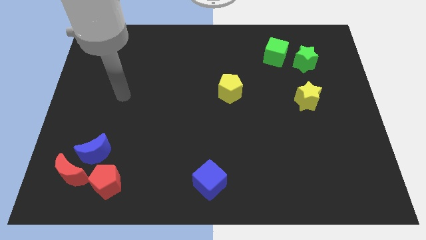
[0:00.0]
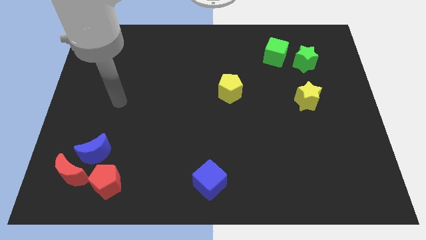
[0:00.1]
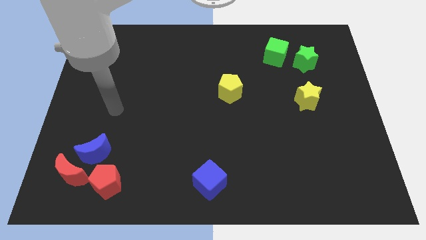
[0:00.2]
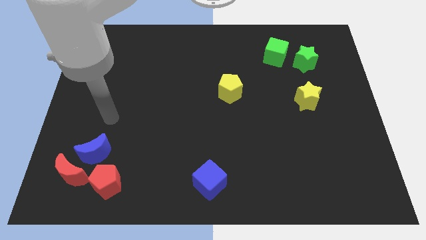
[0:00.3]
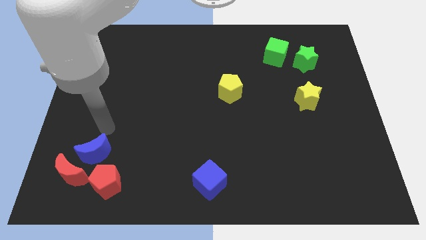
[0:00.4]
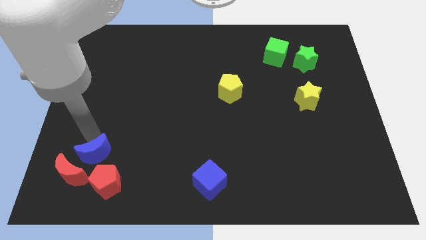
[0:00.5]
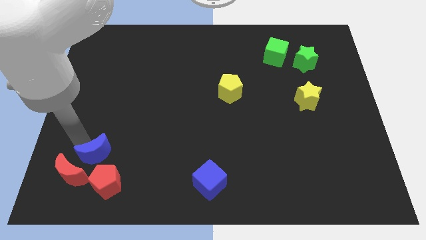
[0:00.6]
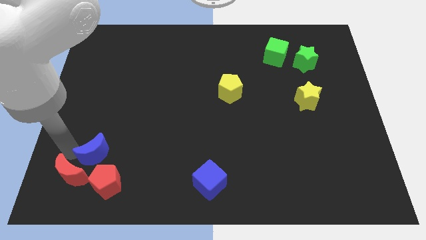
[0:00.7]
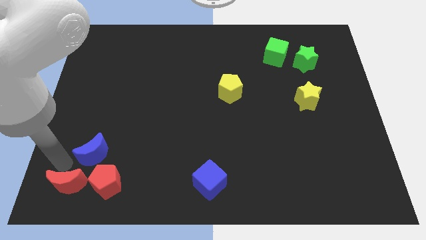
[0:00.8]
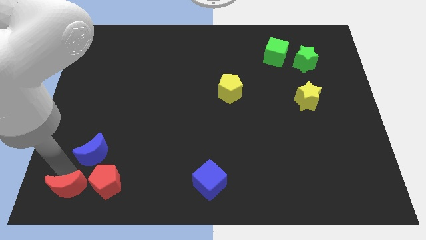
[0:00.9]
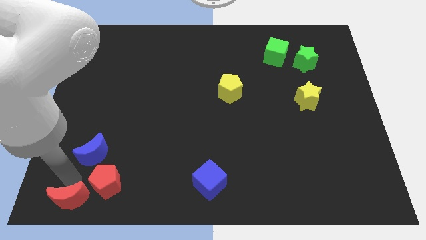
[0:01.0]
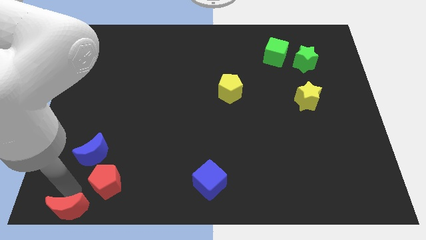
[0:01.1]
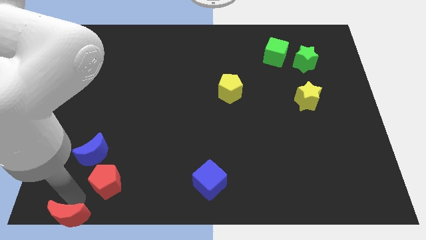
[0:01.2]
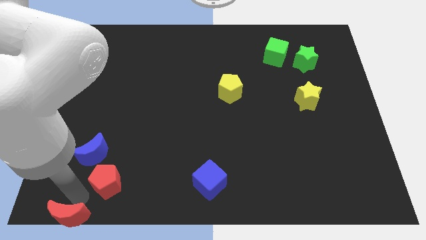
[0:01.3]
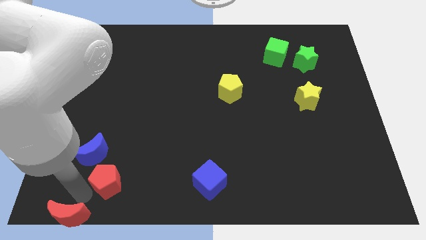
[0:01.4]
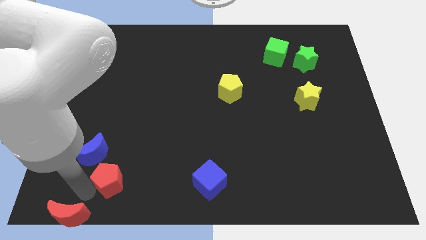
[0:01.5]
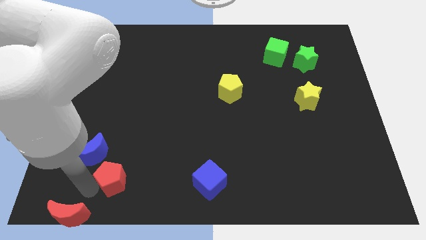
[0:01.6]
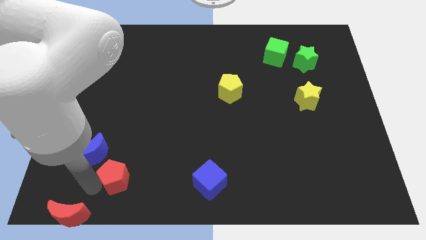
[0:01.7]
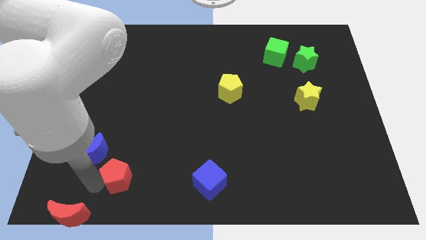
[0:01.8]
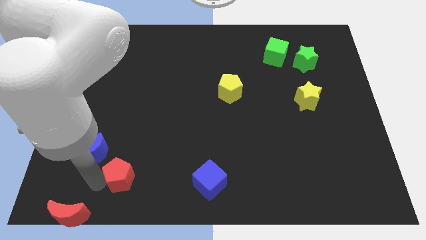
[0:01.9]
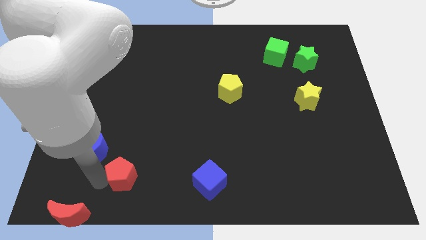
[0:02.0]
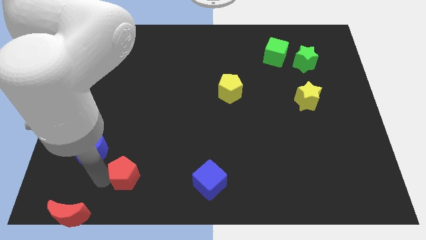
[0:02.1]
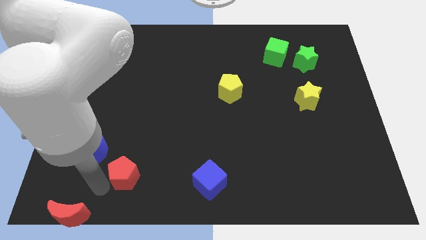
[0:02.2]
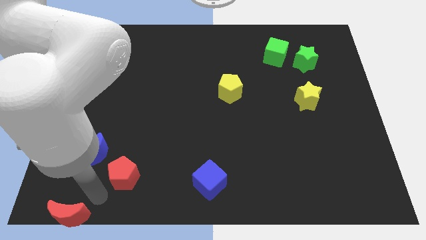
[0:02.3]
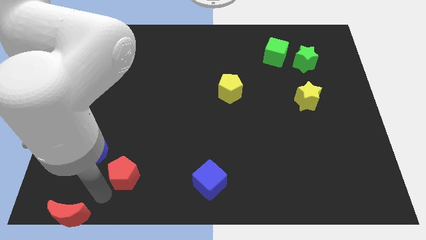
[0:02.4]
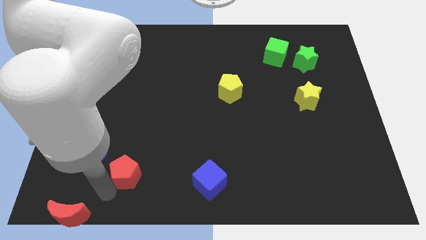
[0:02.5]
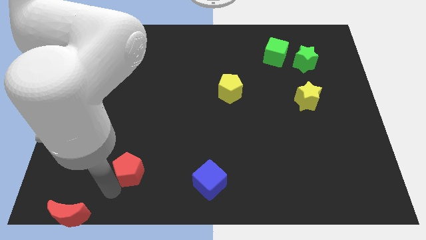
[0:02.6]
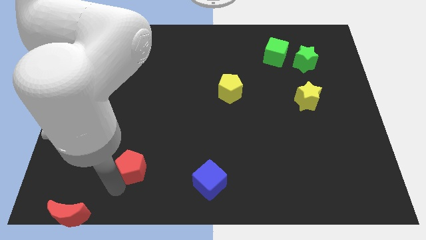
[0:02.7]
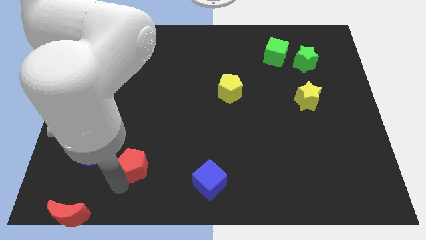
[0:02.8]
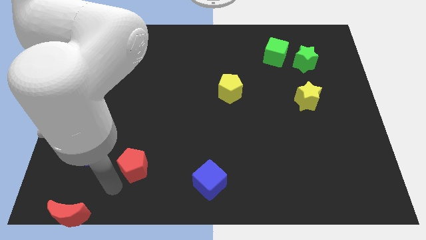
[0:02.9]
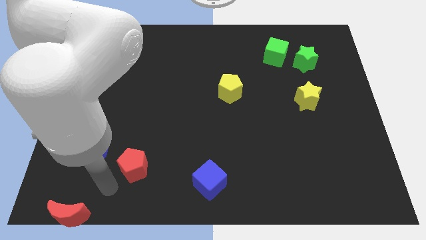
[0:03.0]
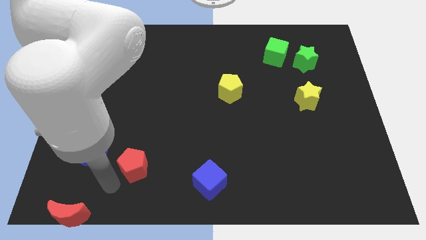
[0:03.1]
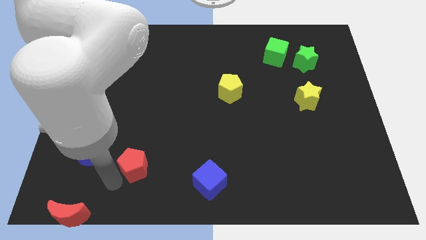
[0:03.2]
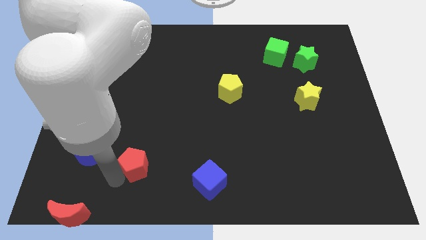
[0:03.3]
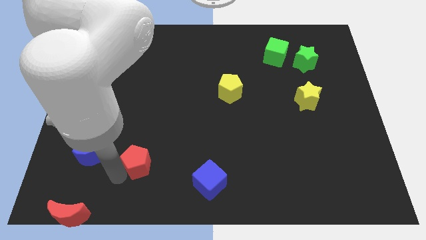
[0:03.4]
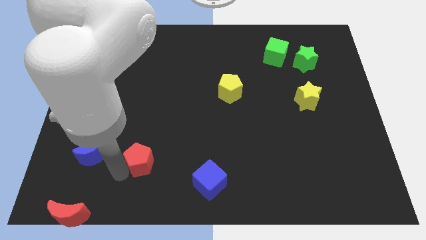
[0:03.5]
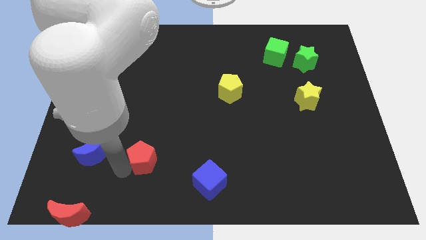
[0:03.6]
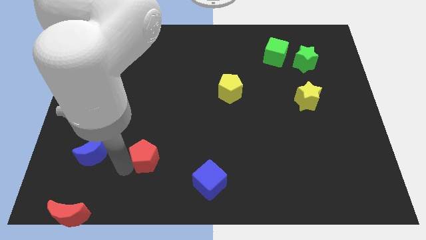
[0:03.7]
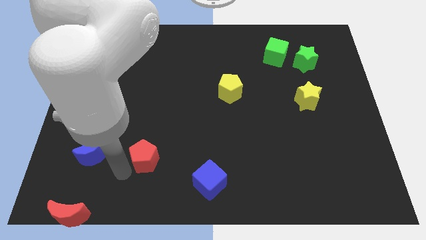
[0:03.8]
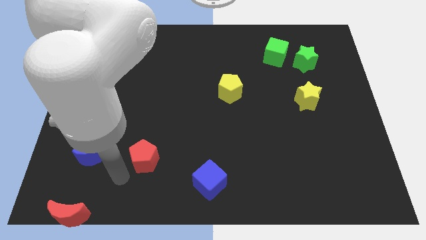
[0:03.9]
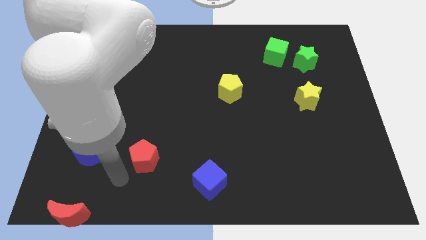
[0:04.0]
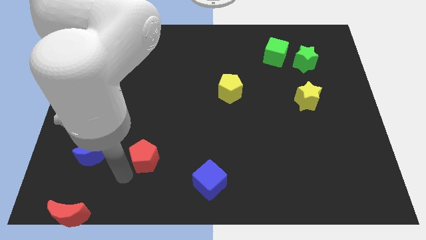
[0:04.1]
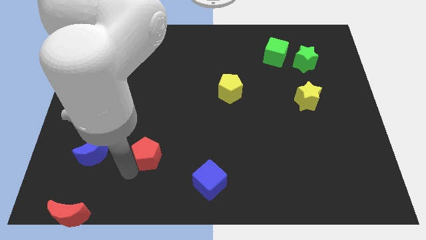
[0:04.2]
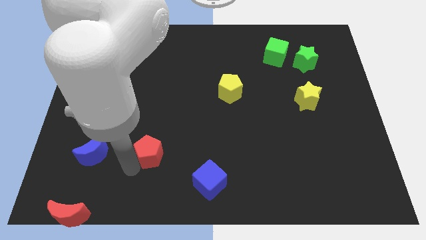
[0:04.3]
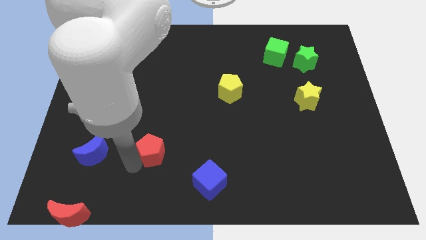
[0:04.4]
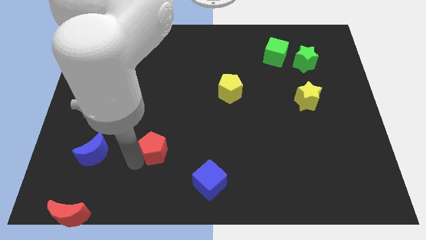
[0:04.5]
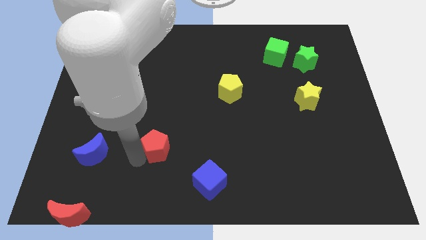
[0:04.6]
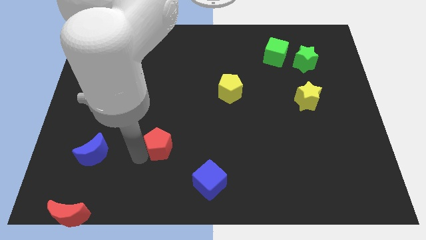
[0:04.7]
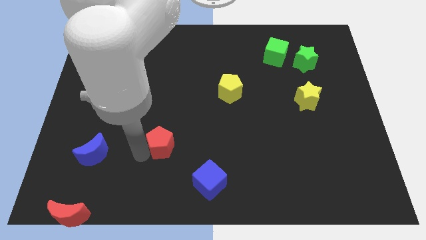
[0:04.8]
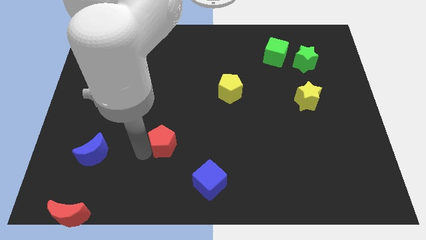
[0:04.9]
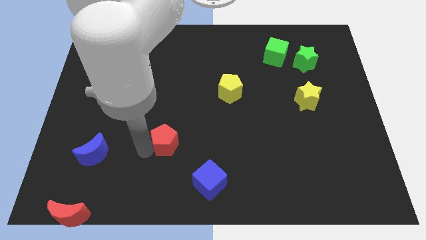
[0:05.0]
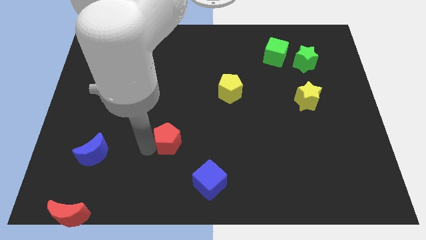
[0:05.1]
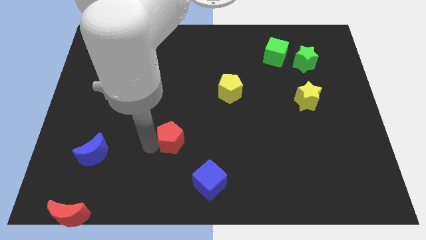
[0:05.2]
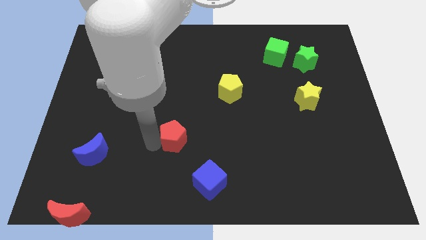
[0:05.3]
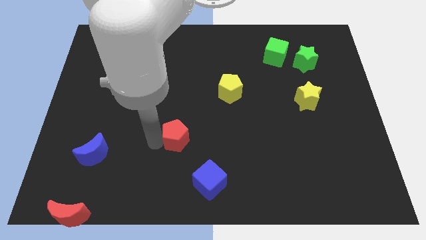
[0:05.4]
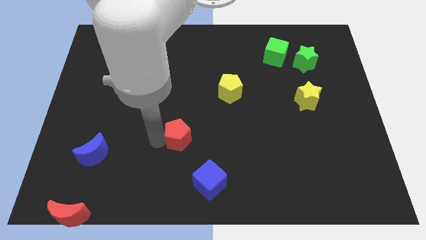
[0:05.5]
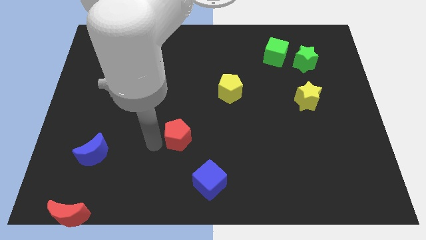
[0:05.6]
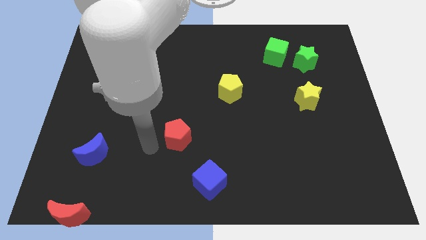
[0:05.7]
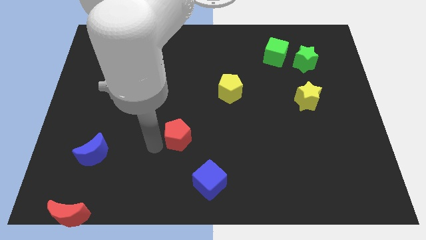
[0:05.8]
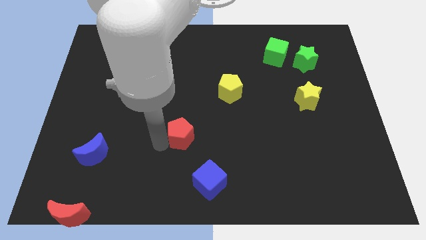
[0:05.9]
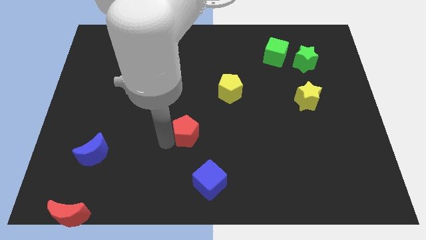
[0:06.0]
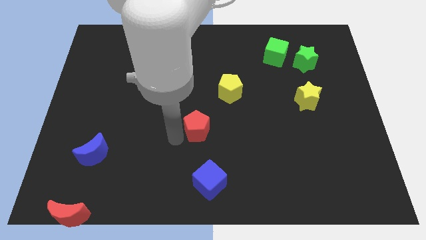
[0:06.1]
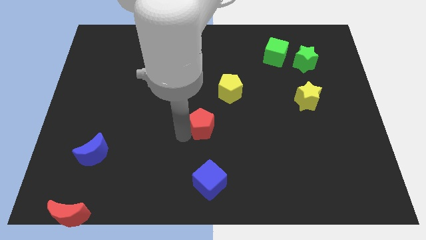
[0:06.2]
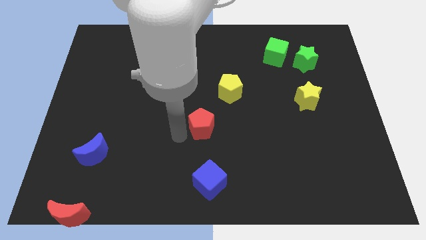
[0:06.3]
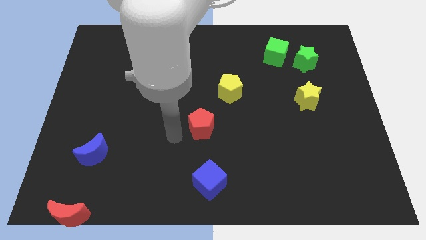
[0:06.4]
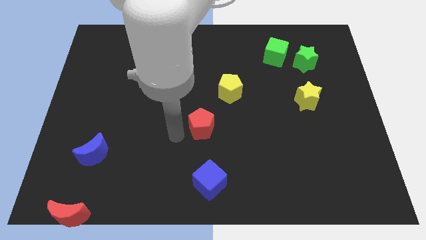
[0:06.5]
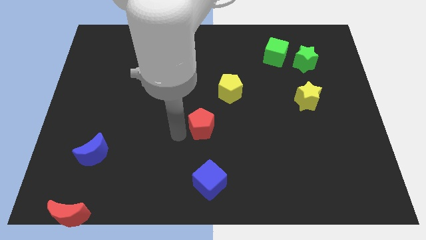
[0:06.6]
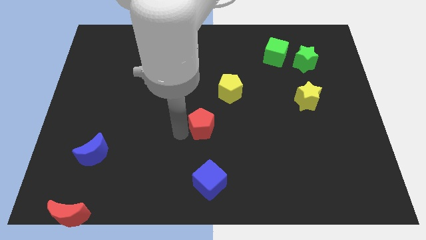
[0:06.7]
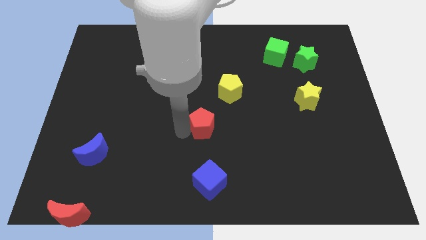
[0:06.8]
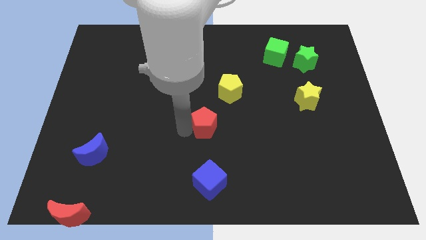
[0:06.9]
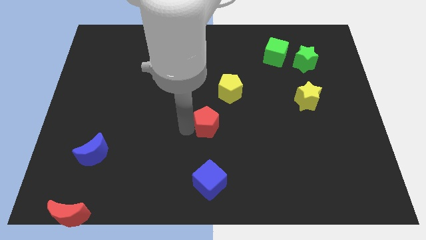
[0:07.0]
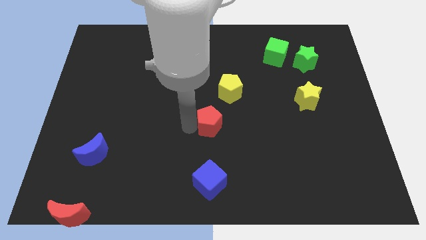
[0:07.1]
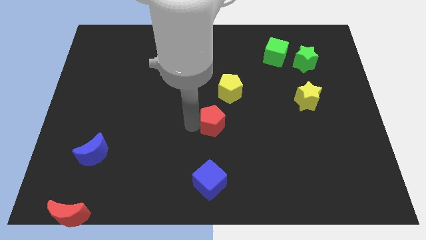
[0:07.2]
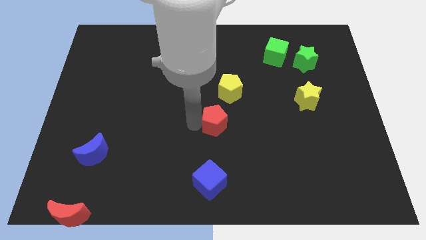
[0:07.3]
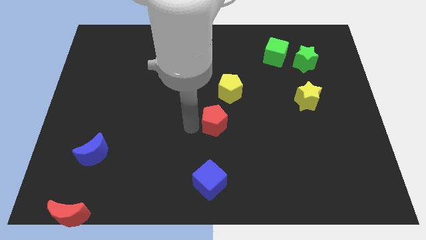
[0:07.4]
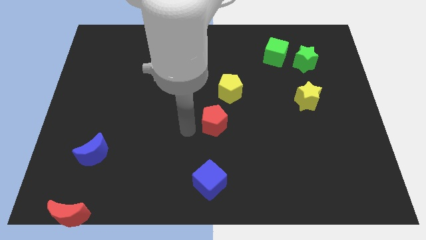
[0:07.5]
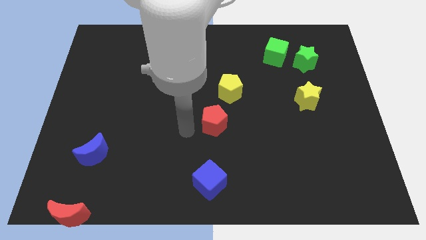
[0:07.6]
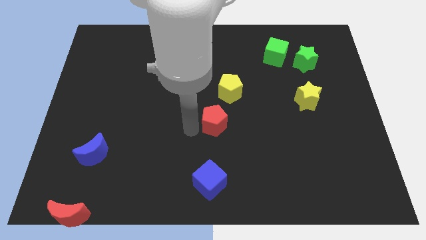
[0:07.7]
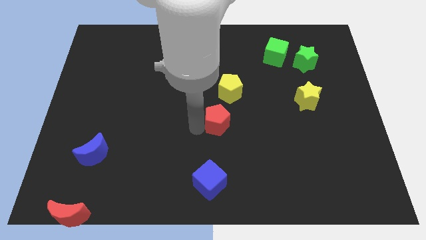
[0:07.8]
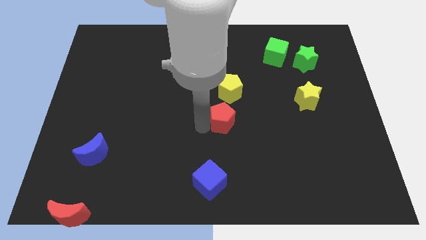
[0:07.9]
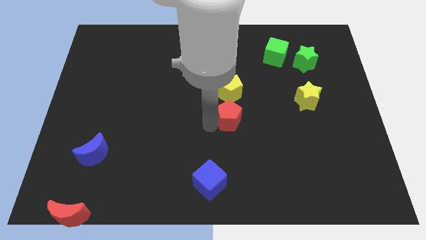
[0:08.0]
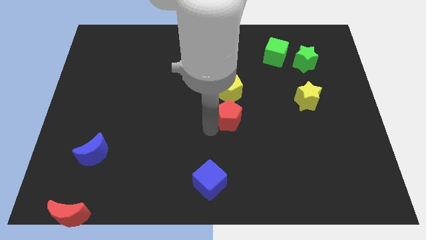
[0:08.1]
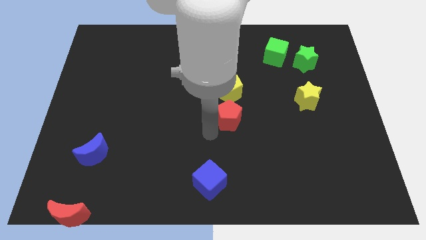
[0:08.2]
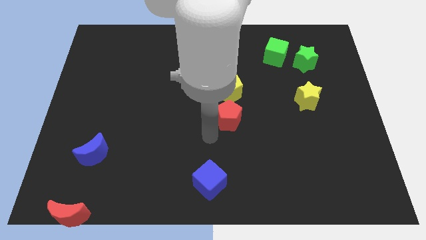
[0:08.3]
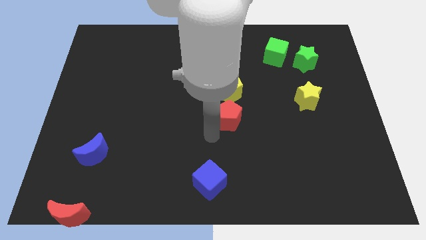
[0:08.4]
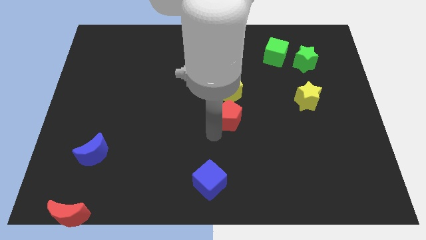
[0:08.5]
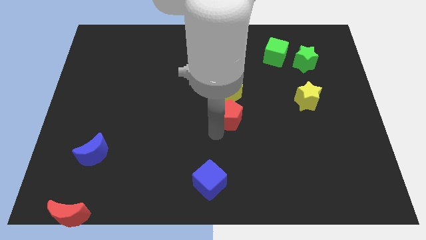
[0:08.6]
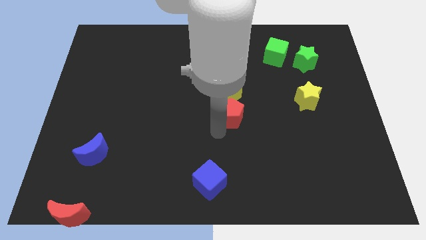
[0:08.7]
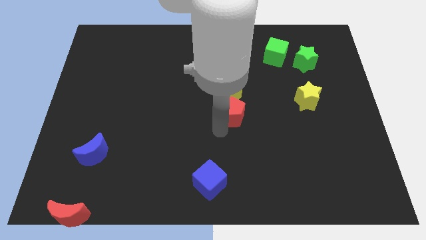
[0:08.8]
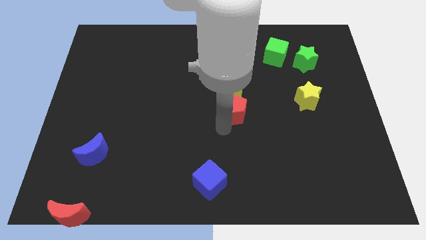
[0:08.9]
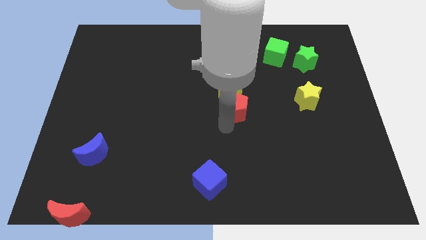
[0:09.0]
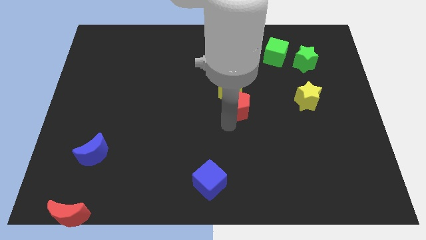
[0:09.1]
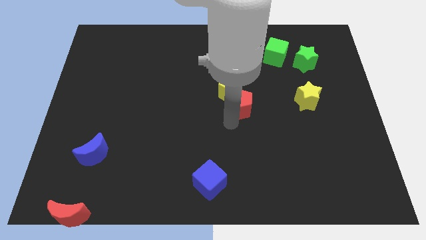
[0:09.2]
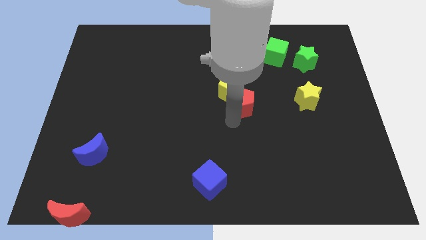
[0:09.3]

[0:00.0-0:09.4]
slide the red pentagon just right of the yellow pentagon
